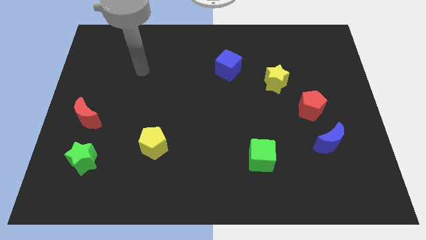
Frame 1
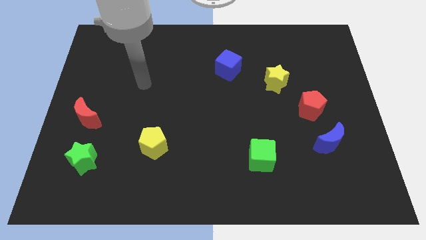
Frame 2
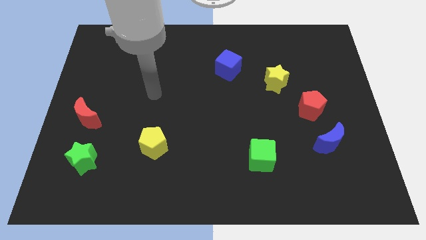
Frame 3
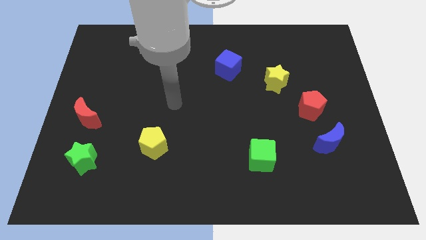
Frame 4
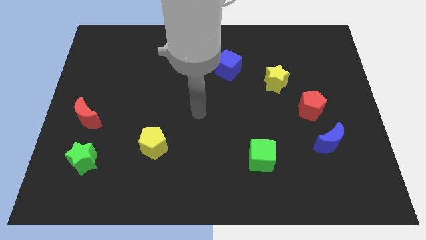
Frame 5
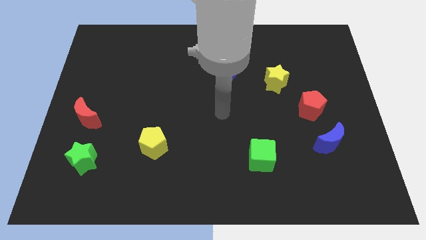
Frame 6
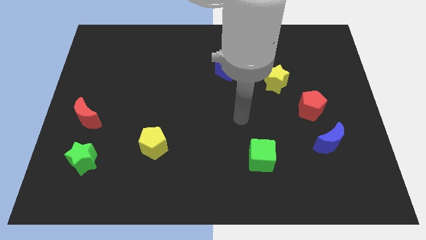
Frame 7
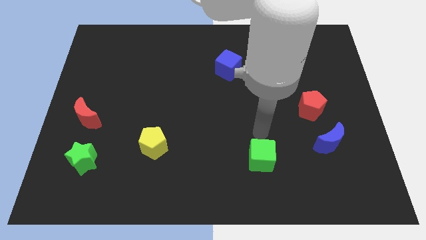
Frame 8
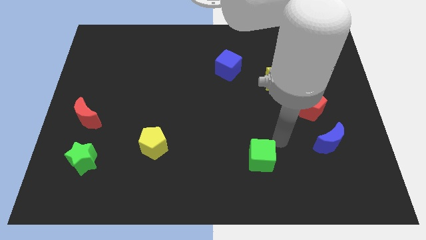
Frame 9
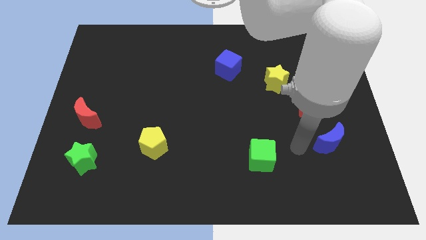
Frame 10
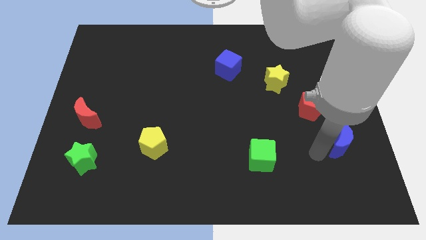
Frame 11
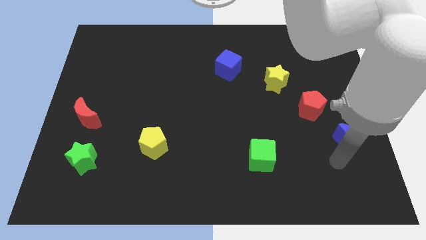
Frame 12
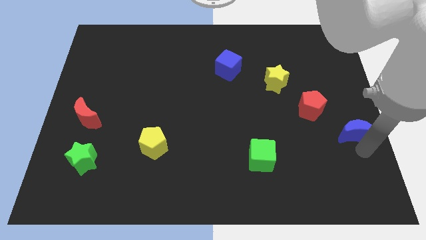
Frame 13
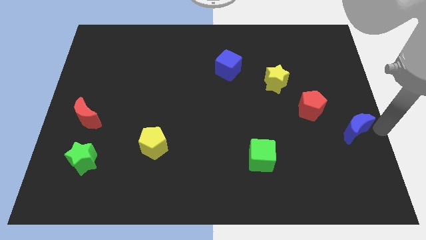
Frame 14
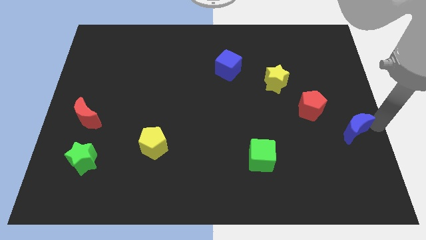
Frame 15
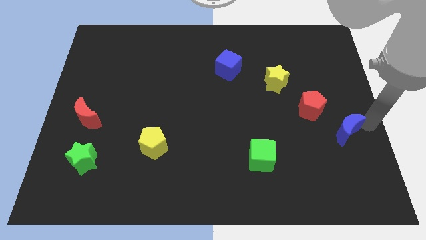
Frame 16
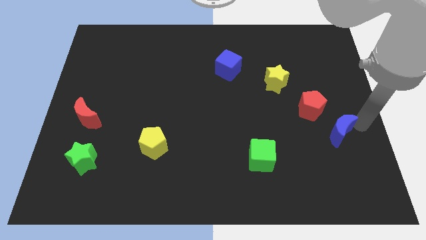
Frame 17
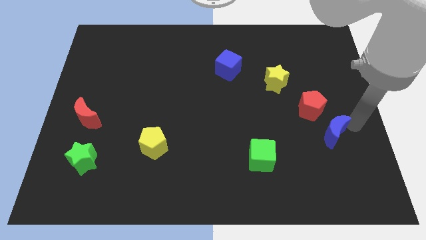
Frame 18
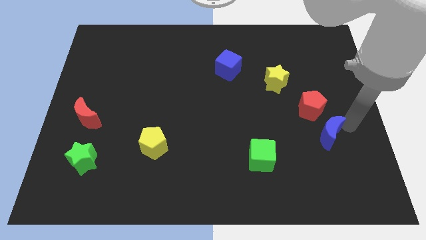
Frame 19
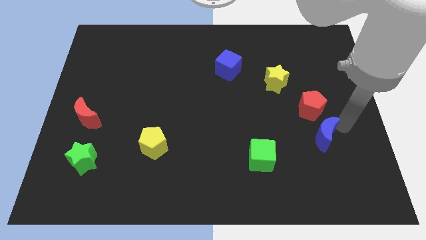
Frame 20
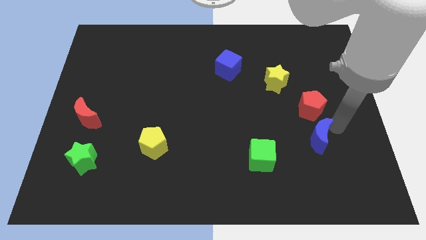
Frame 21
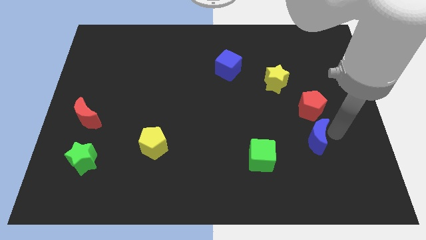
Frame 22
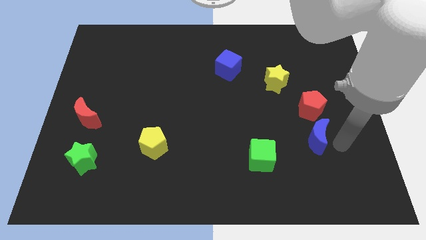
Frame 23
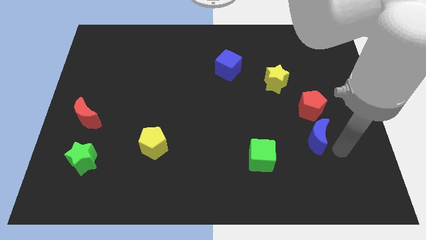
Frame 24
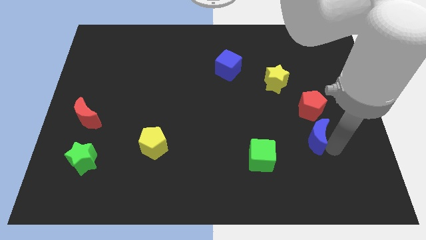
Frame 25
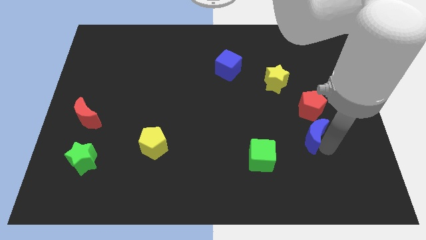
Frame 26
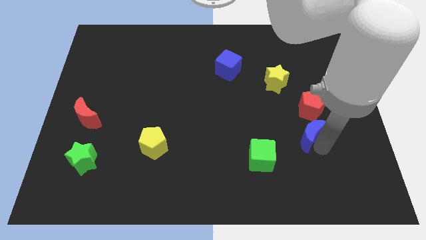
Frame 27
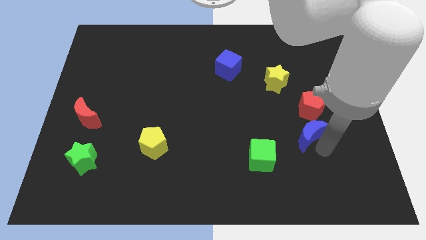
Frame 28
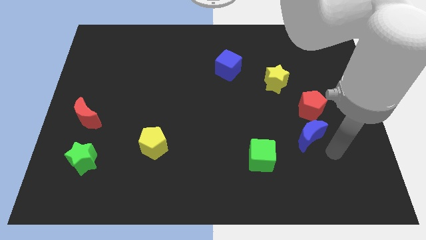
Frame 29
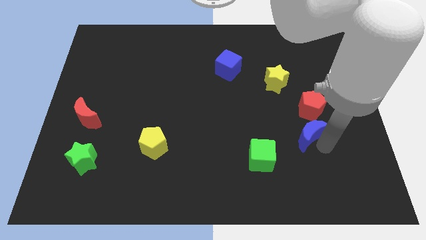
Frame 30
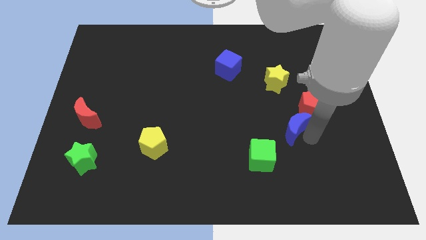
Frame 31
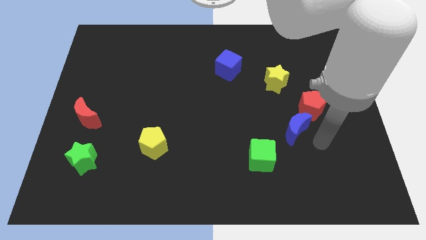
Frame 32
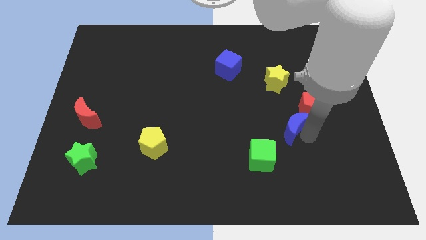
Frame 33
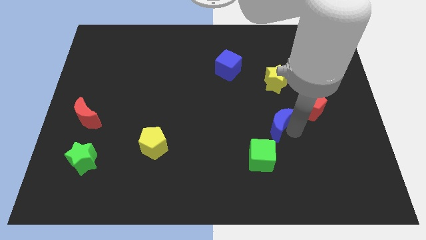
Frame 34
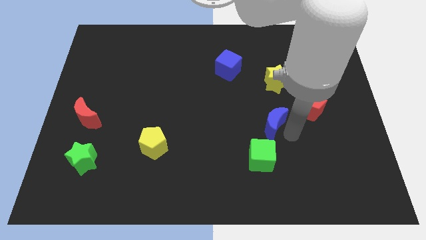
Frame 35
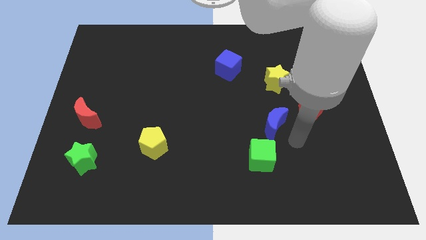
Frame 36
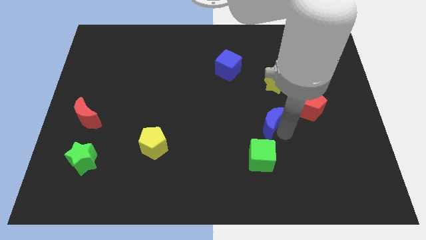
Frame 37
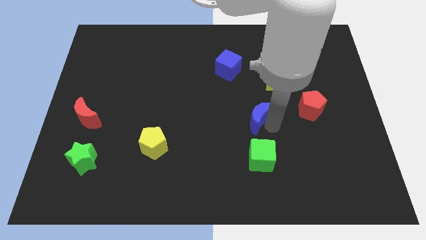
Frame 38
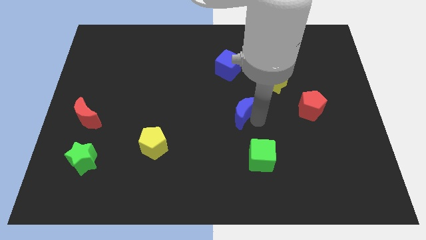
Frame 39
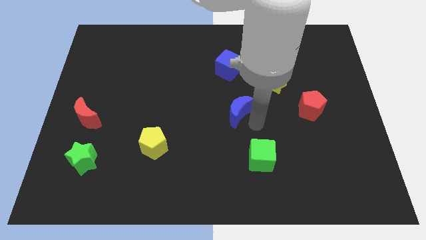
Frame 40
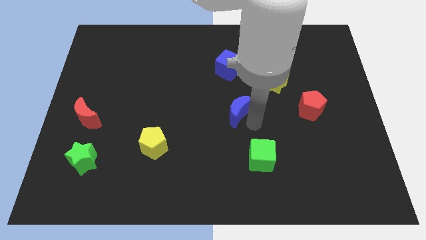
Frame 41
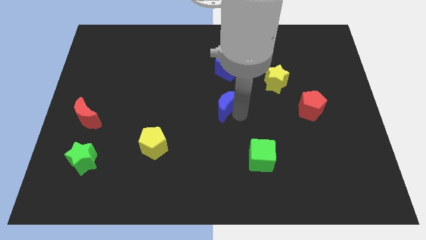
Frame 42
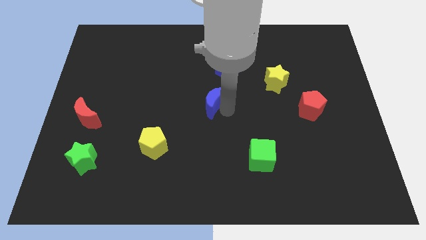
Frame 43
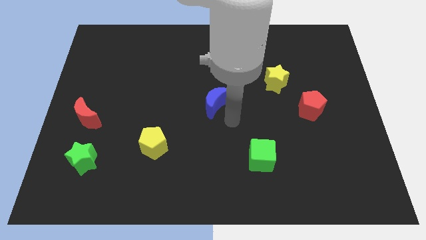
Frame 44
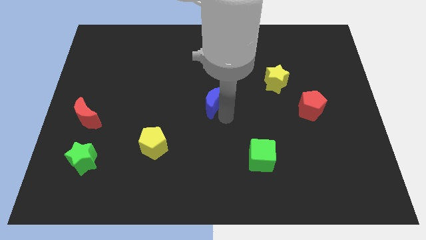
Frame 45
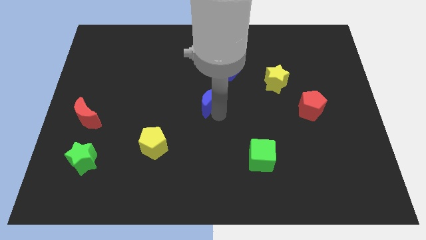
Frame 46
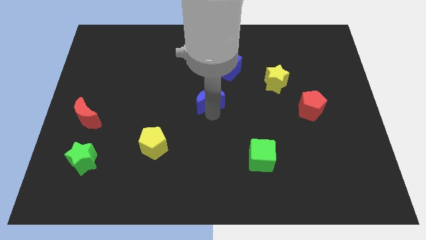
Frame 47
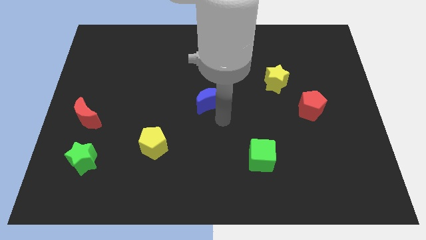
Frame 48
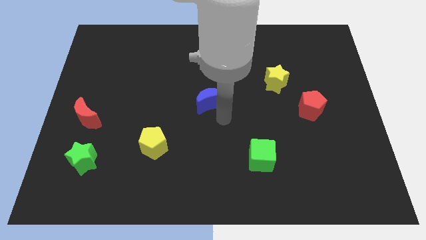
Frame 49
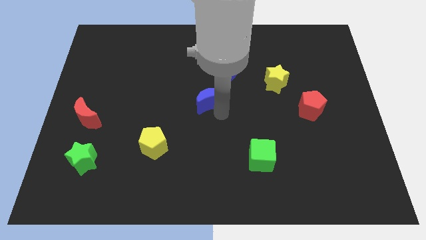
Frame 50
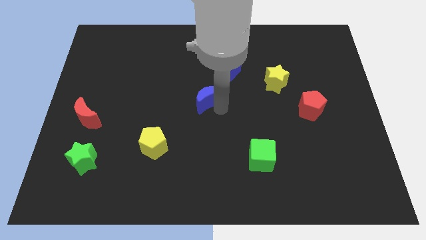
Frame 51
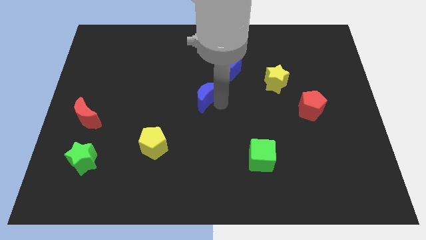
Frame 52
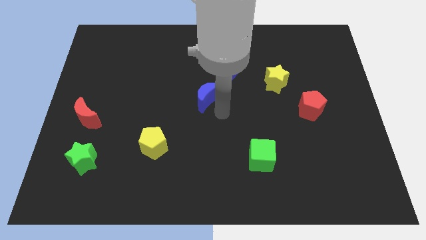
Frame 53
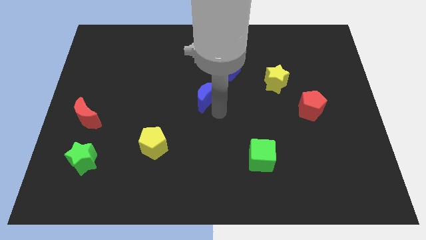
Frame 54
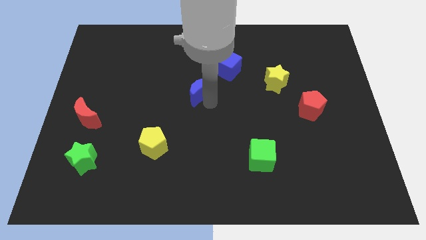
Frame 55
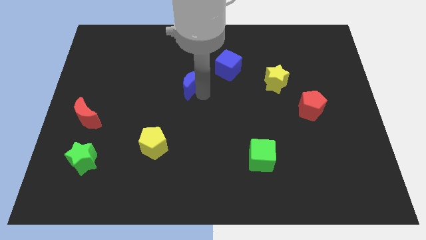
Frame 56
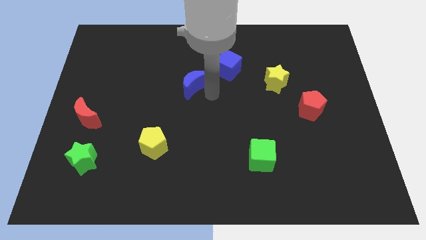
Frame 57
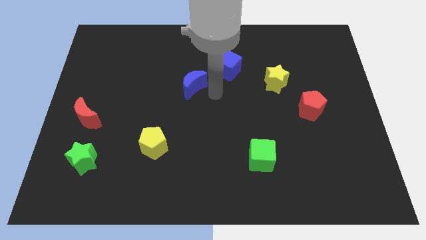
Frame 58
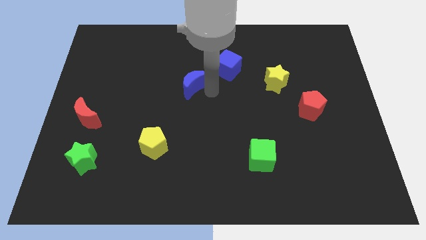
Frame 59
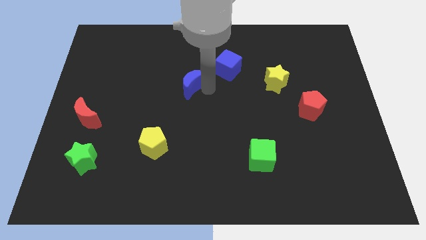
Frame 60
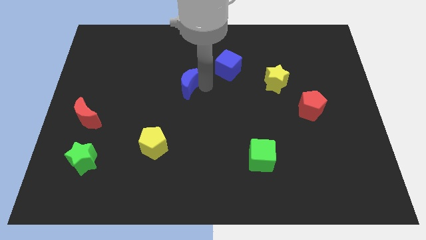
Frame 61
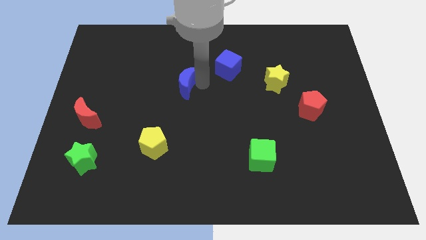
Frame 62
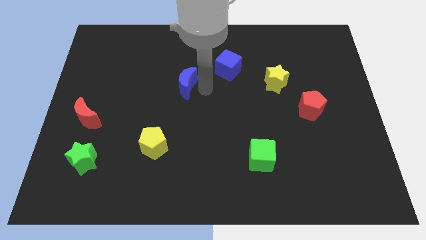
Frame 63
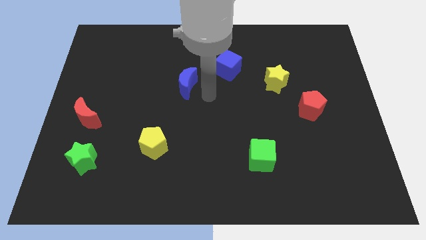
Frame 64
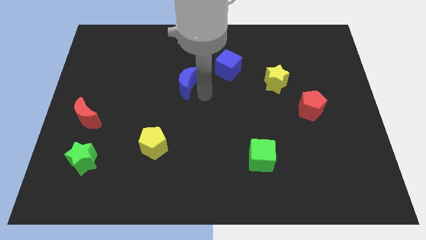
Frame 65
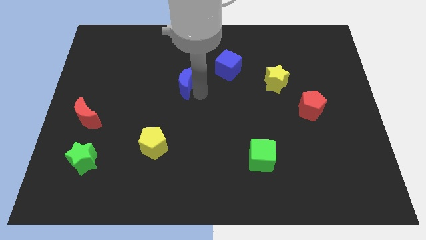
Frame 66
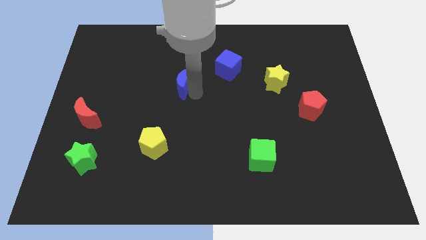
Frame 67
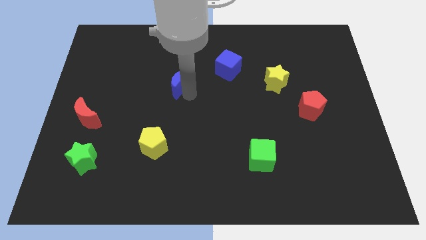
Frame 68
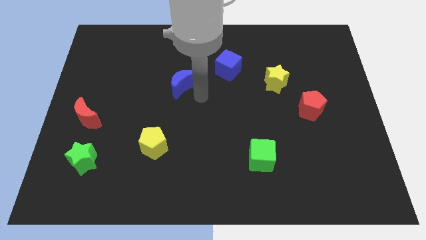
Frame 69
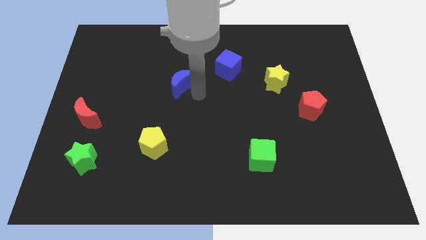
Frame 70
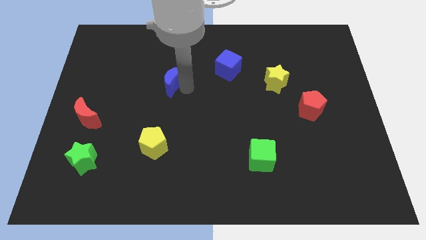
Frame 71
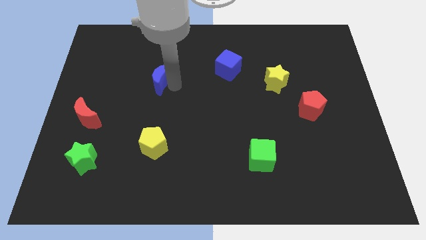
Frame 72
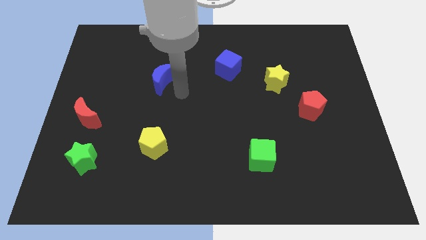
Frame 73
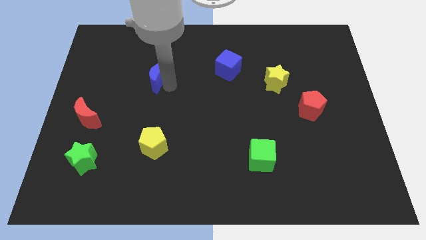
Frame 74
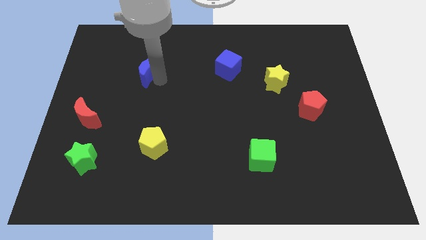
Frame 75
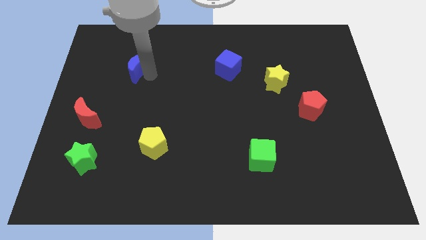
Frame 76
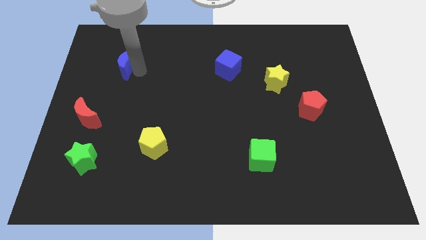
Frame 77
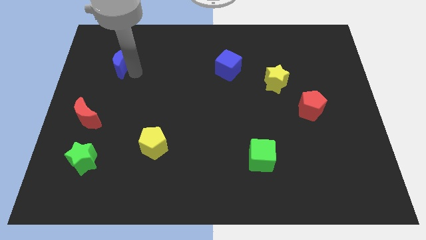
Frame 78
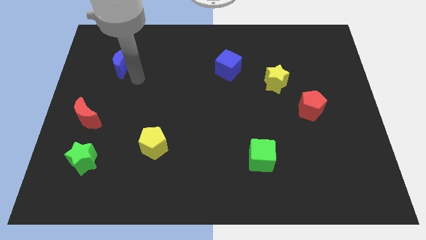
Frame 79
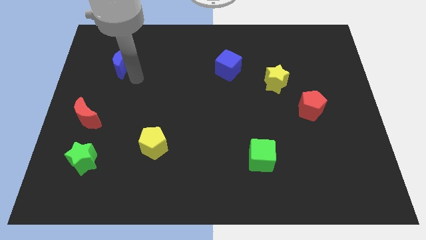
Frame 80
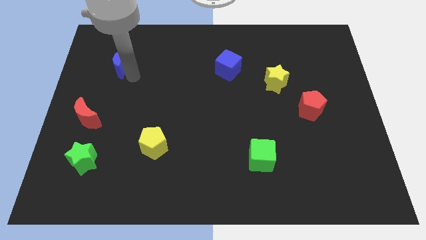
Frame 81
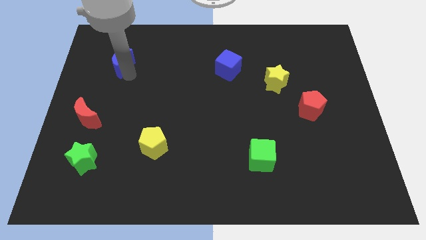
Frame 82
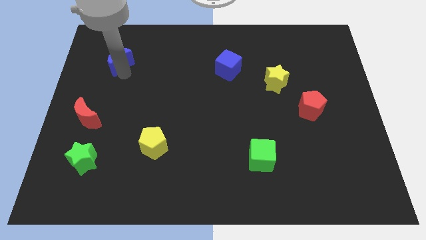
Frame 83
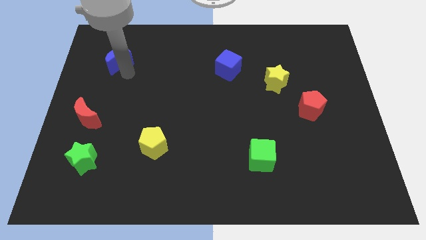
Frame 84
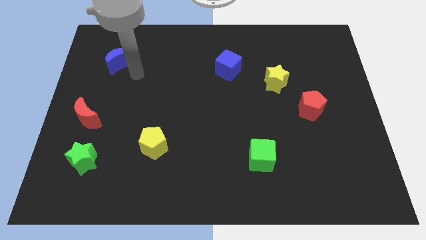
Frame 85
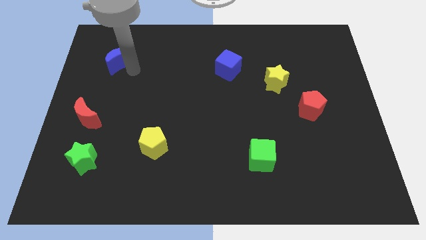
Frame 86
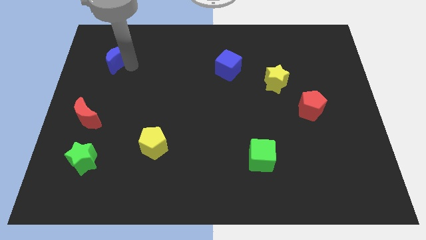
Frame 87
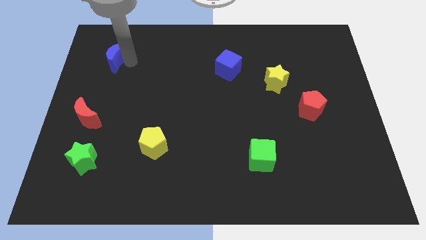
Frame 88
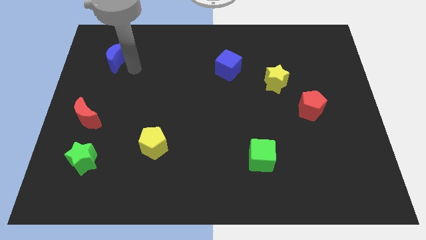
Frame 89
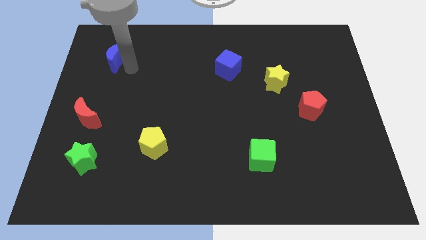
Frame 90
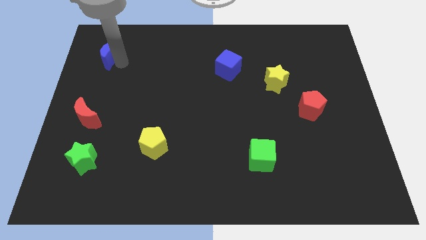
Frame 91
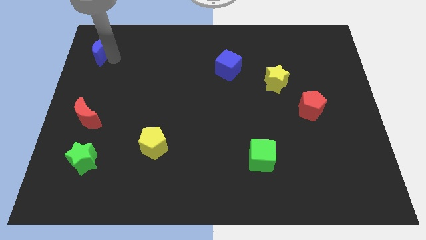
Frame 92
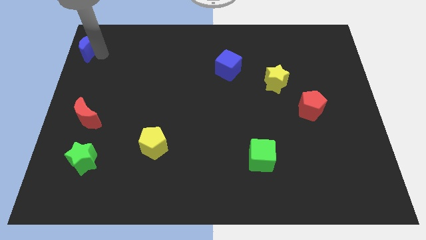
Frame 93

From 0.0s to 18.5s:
put the blue moon to the top left corner
